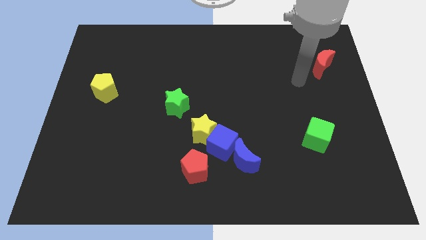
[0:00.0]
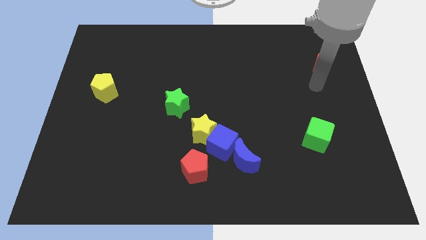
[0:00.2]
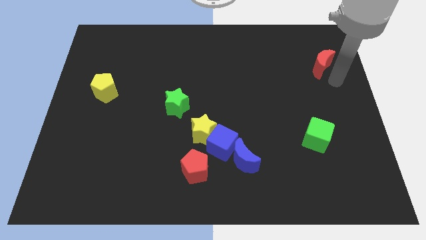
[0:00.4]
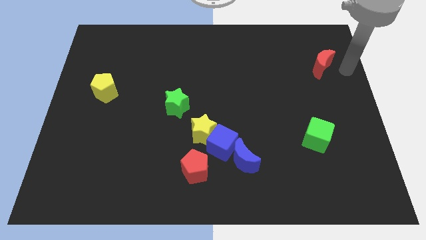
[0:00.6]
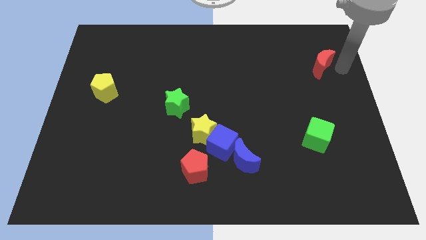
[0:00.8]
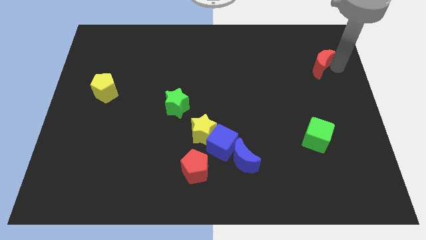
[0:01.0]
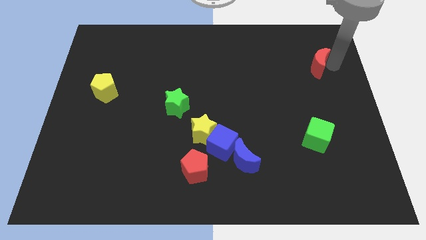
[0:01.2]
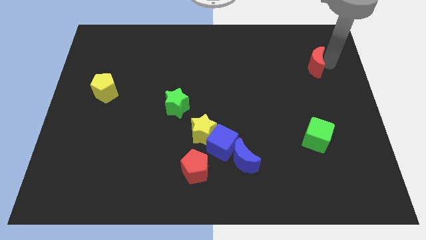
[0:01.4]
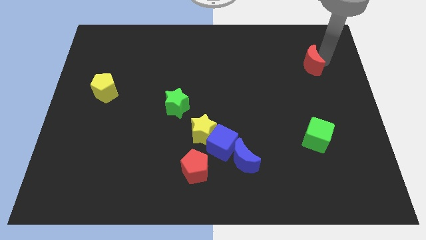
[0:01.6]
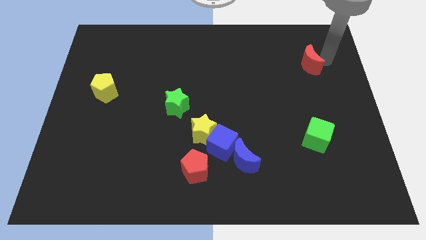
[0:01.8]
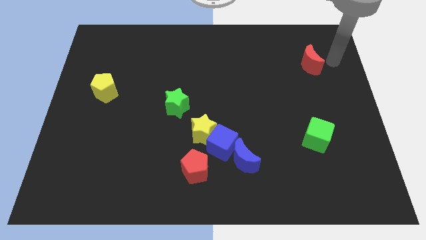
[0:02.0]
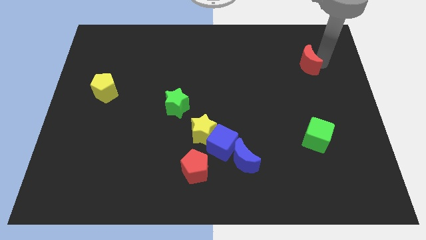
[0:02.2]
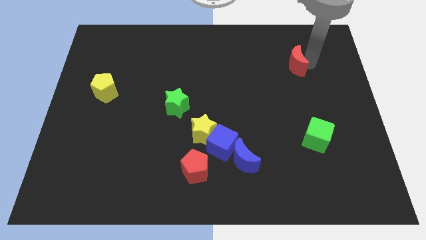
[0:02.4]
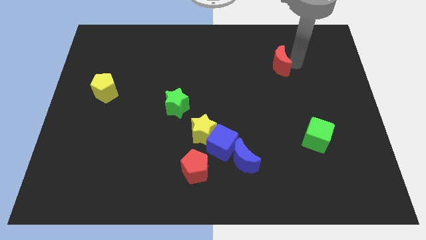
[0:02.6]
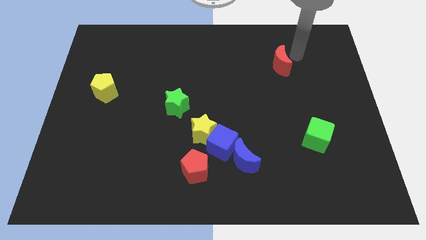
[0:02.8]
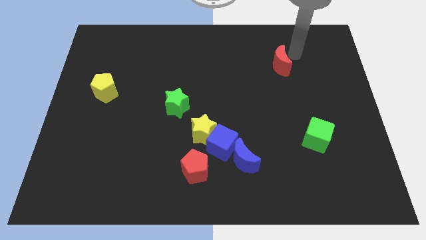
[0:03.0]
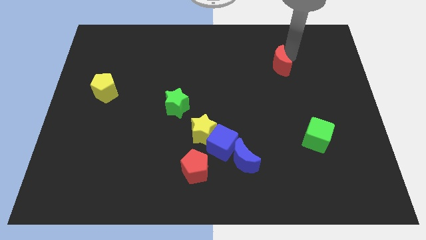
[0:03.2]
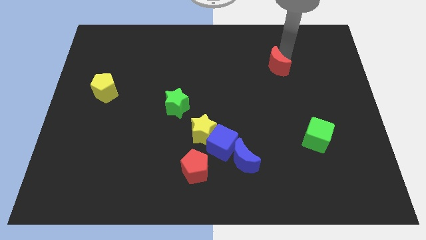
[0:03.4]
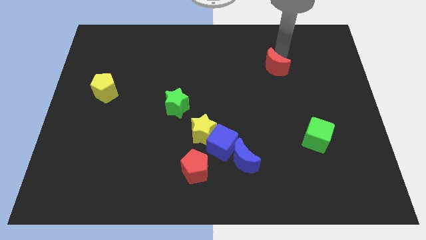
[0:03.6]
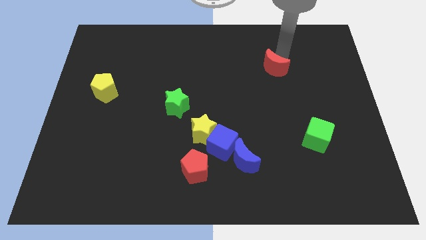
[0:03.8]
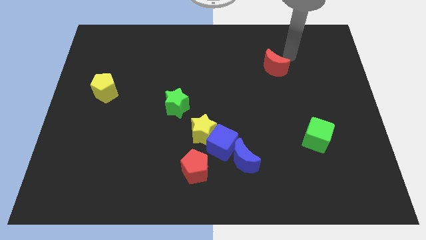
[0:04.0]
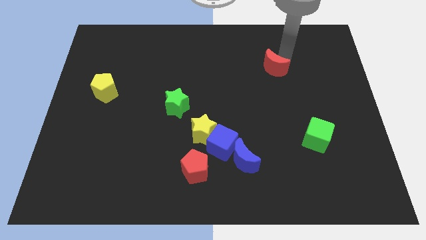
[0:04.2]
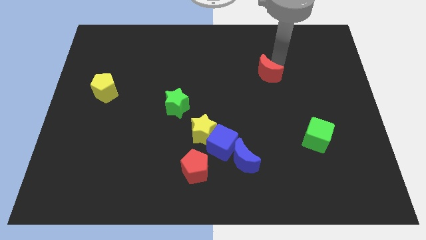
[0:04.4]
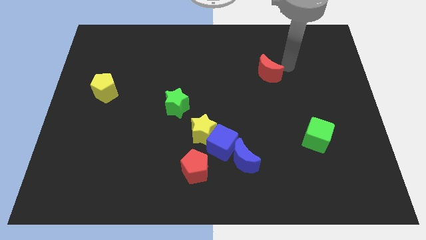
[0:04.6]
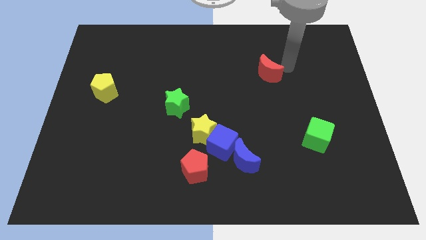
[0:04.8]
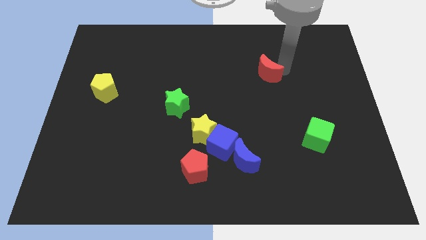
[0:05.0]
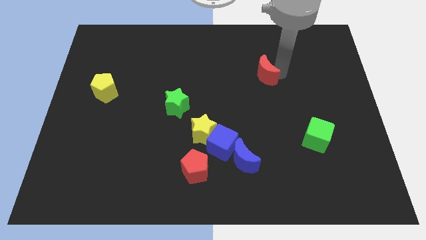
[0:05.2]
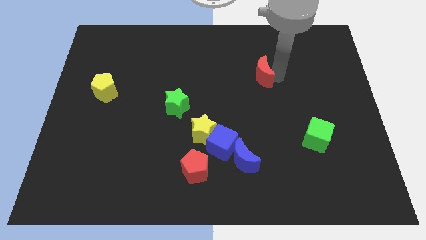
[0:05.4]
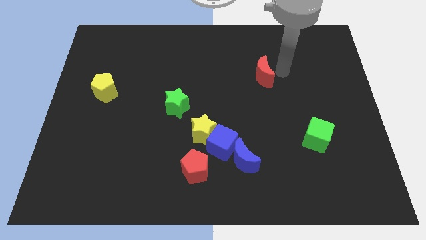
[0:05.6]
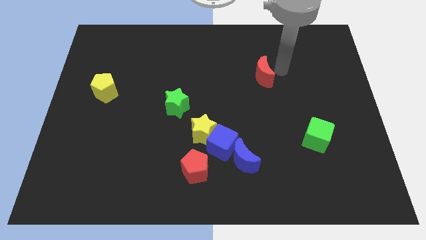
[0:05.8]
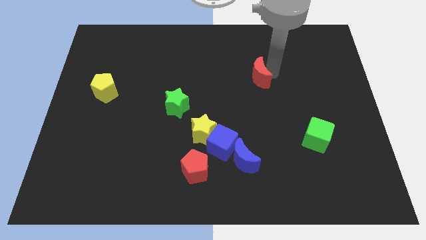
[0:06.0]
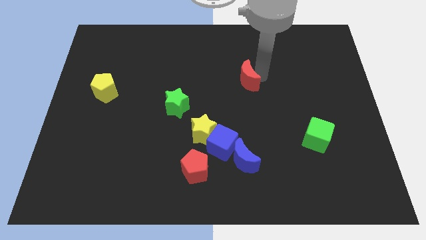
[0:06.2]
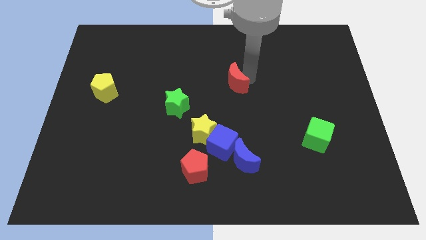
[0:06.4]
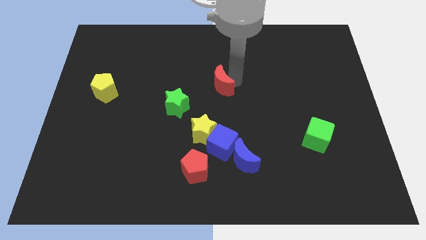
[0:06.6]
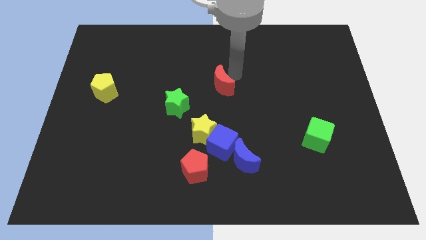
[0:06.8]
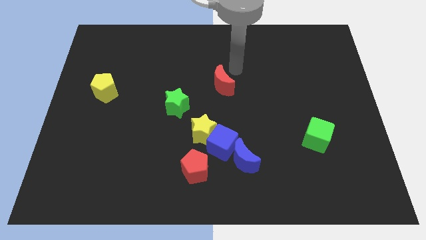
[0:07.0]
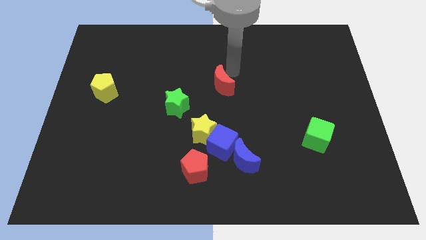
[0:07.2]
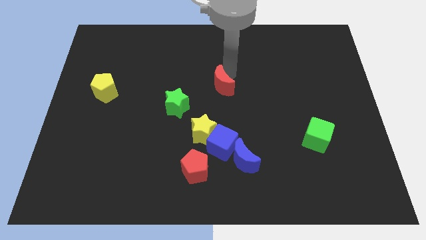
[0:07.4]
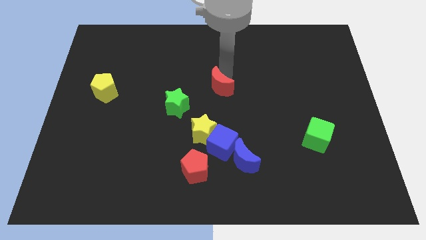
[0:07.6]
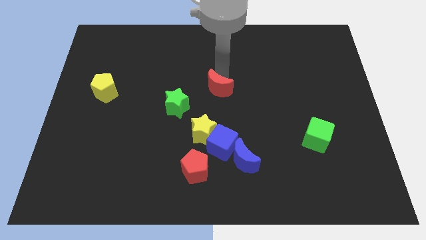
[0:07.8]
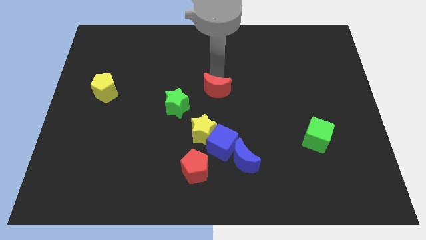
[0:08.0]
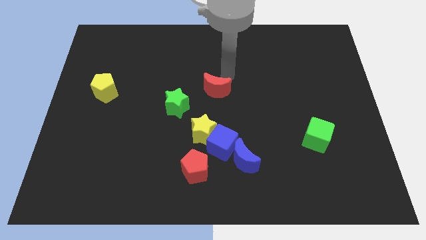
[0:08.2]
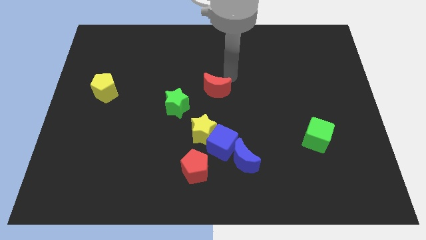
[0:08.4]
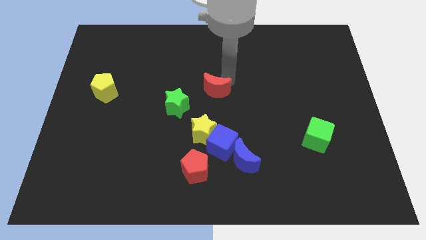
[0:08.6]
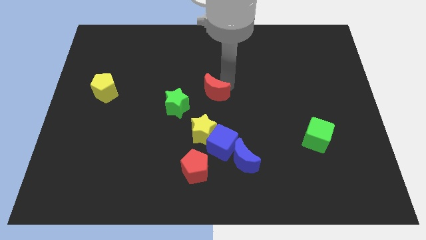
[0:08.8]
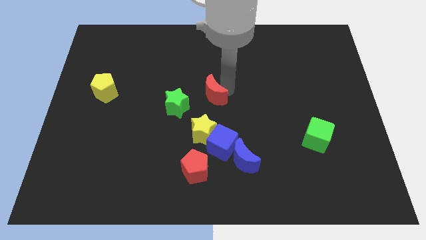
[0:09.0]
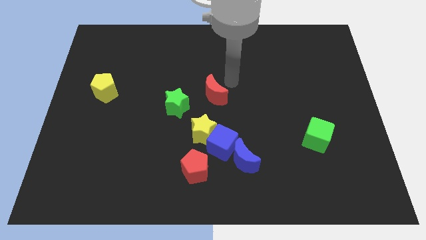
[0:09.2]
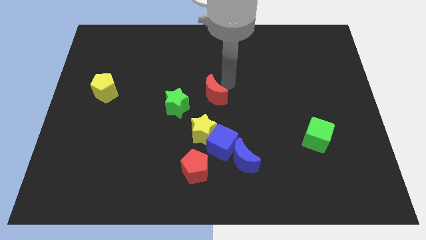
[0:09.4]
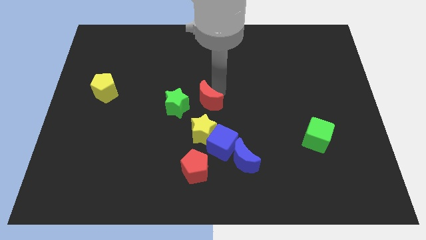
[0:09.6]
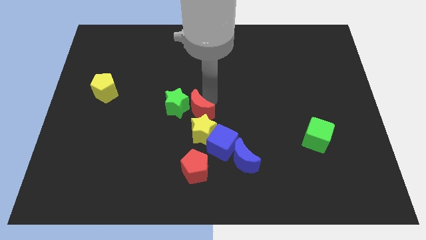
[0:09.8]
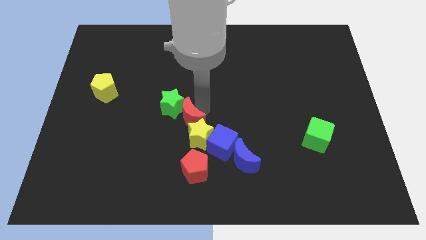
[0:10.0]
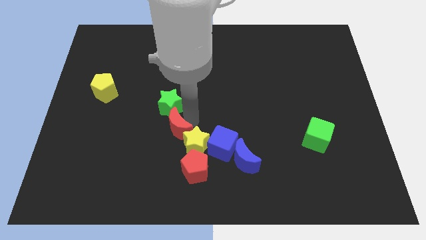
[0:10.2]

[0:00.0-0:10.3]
put the red moon to the left side of the yellow star

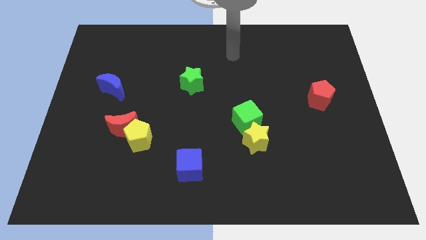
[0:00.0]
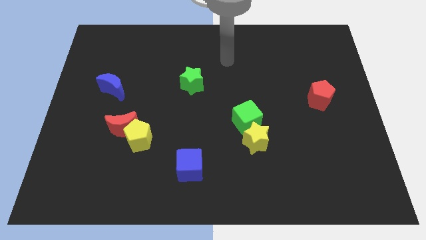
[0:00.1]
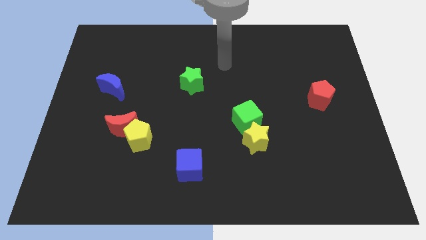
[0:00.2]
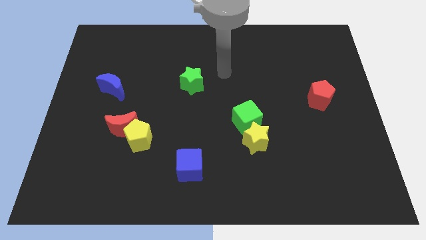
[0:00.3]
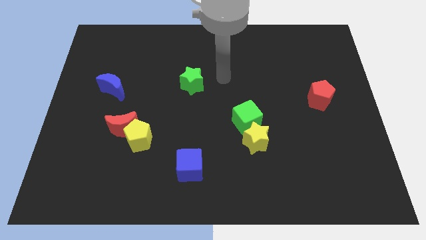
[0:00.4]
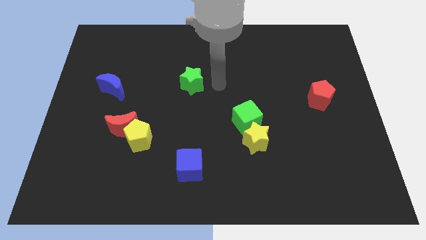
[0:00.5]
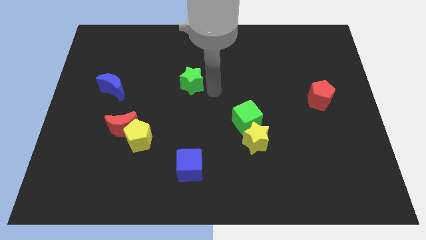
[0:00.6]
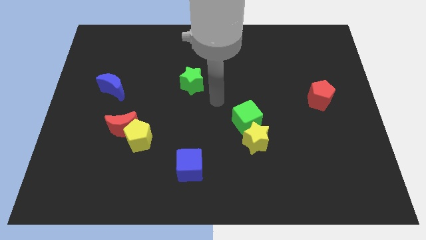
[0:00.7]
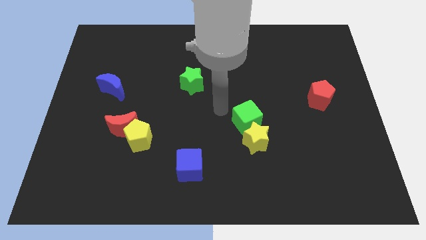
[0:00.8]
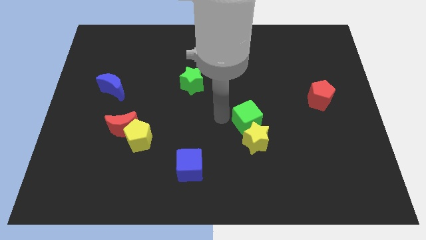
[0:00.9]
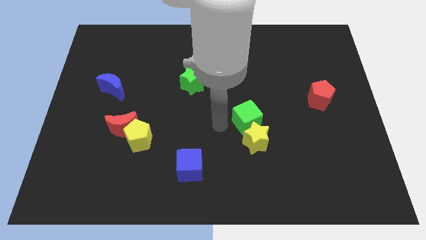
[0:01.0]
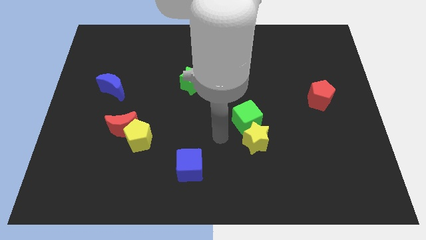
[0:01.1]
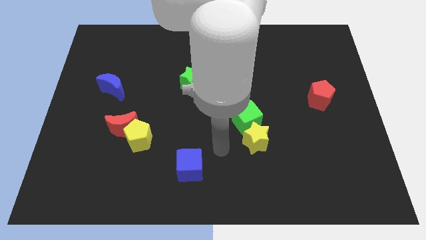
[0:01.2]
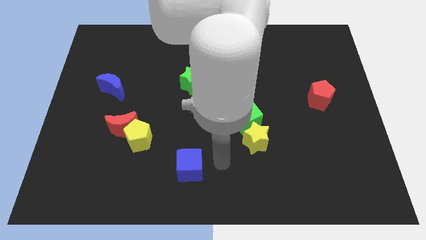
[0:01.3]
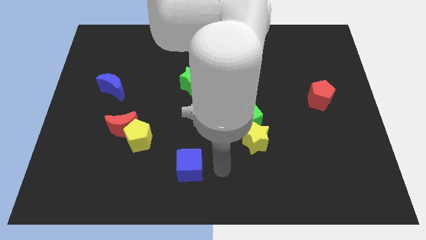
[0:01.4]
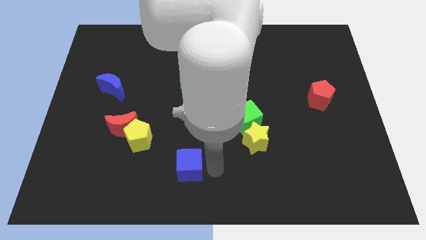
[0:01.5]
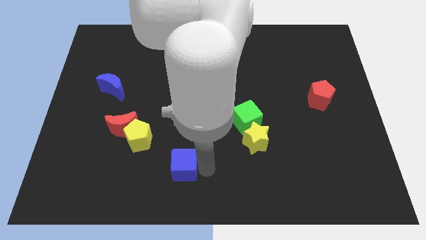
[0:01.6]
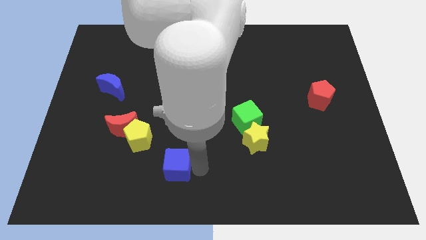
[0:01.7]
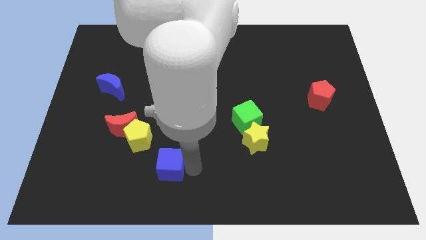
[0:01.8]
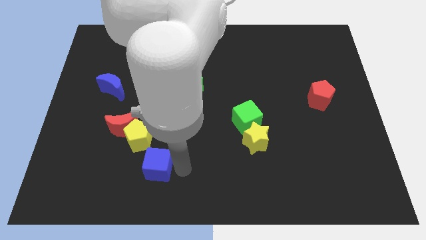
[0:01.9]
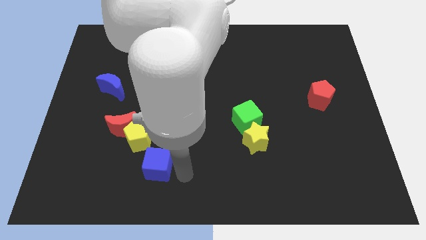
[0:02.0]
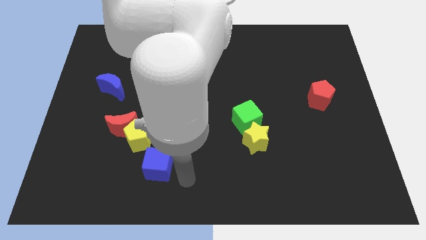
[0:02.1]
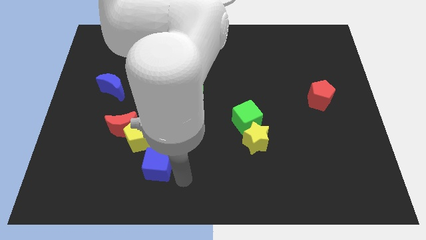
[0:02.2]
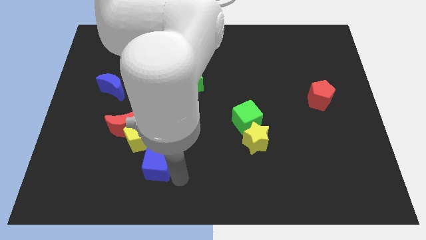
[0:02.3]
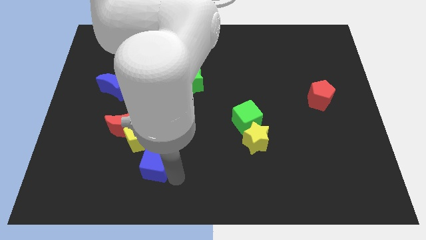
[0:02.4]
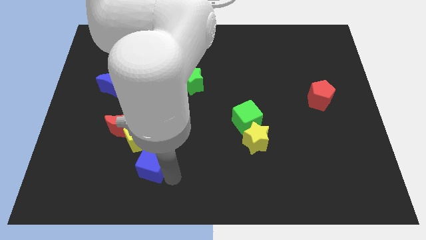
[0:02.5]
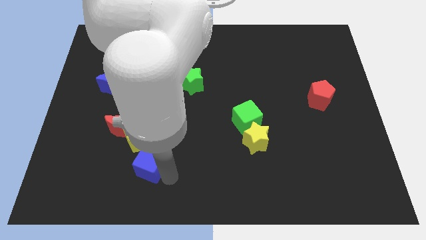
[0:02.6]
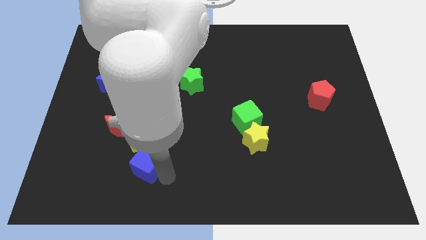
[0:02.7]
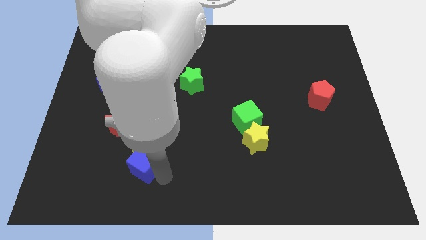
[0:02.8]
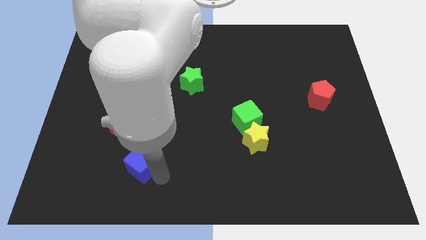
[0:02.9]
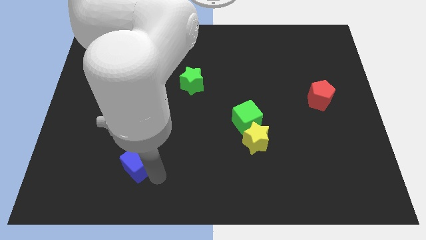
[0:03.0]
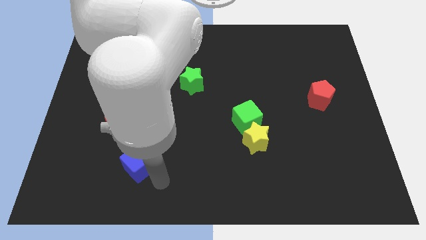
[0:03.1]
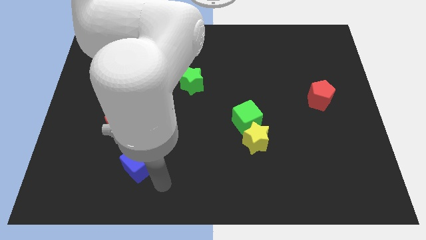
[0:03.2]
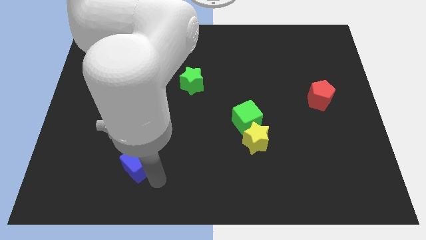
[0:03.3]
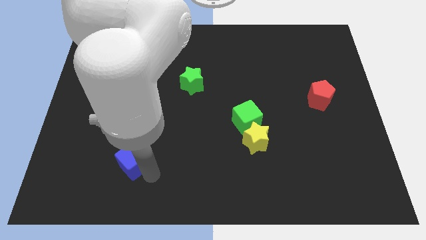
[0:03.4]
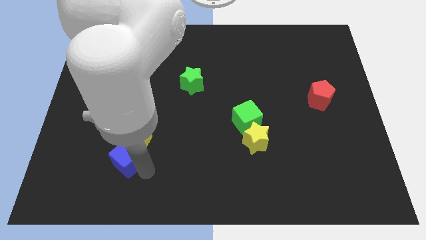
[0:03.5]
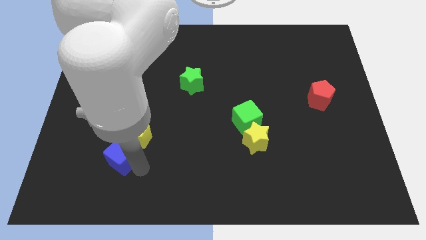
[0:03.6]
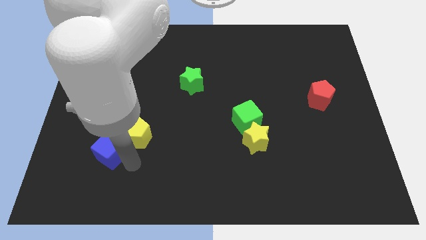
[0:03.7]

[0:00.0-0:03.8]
move the blue cube to the left of the yellow pentagon
